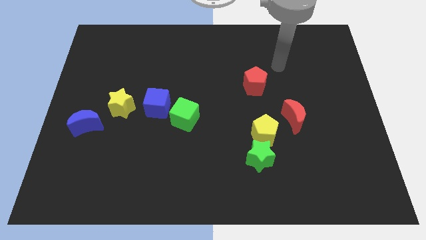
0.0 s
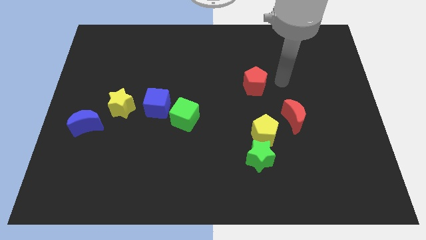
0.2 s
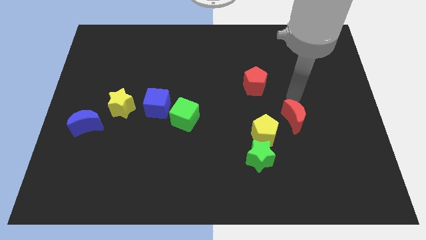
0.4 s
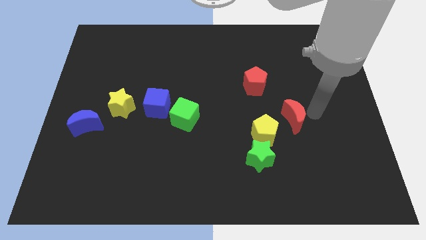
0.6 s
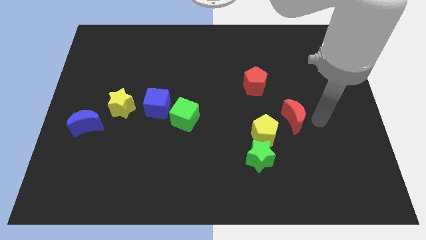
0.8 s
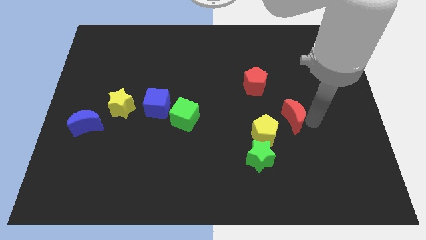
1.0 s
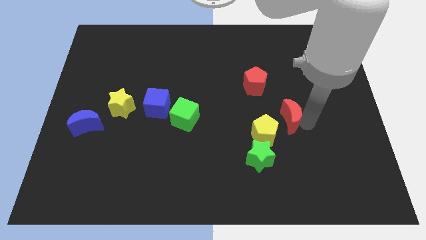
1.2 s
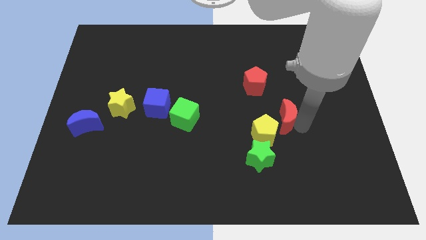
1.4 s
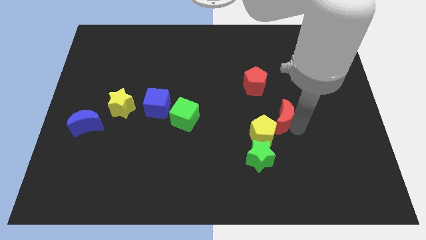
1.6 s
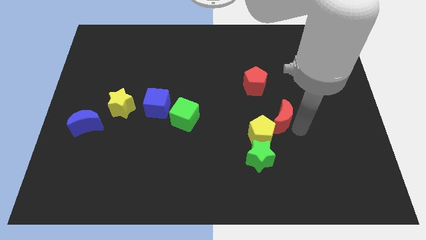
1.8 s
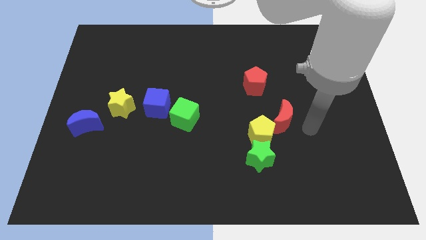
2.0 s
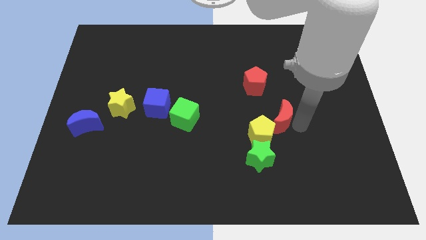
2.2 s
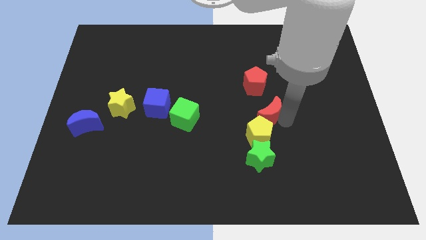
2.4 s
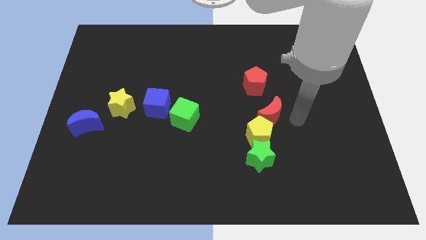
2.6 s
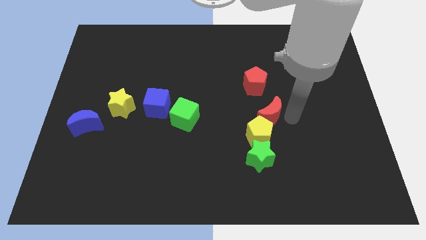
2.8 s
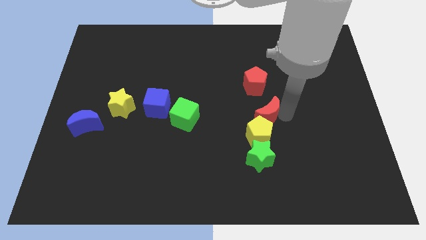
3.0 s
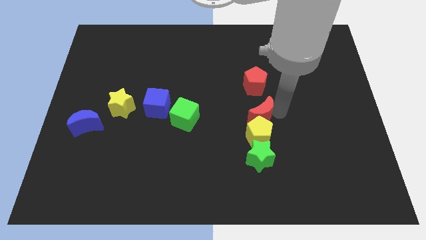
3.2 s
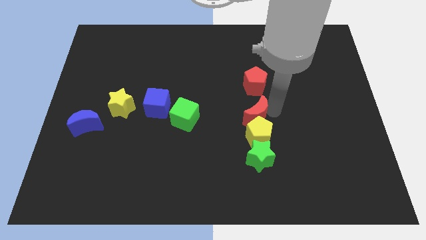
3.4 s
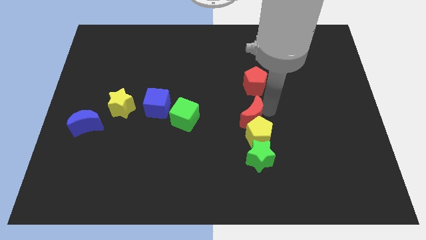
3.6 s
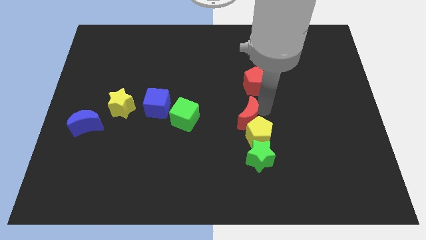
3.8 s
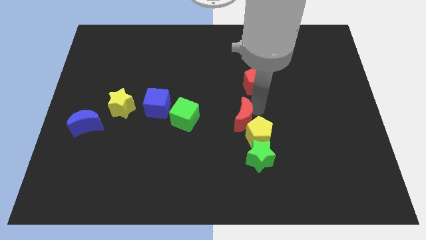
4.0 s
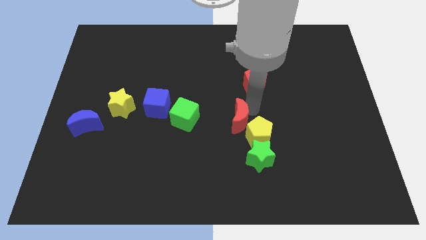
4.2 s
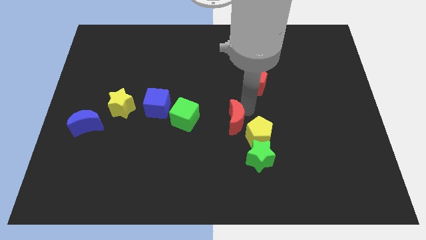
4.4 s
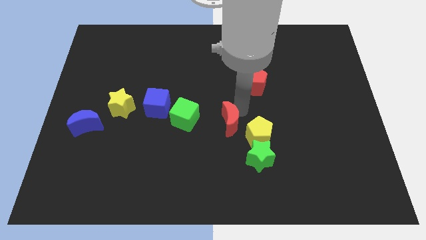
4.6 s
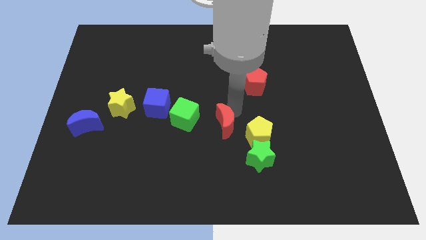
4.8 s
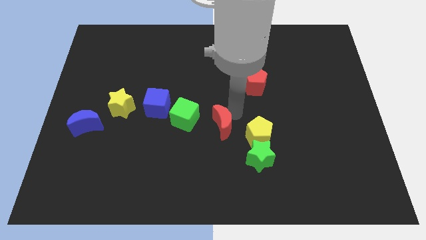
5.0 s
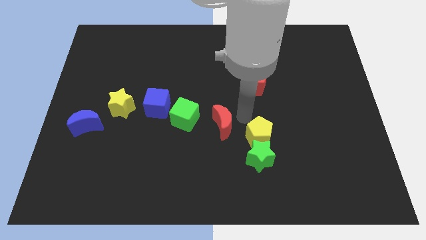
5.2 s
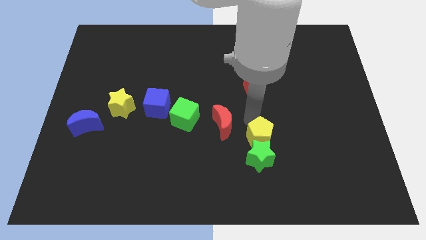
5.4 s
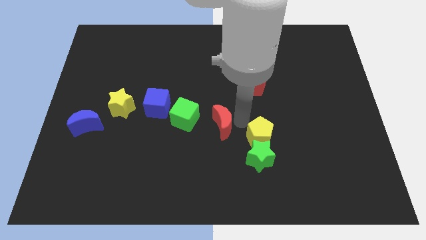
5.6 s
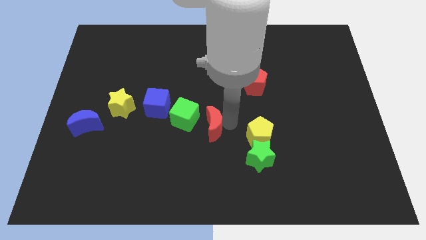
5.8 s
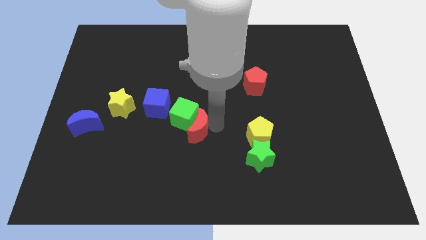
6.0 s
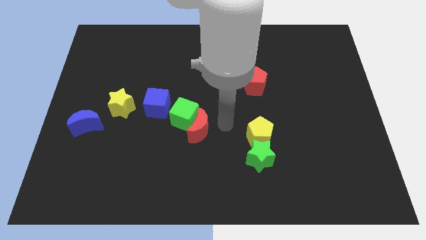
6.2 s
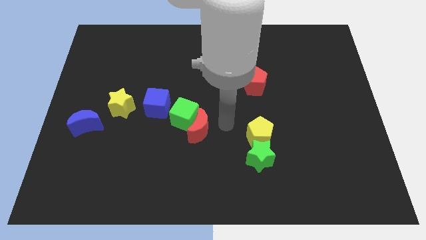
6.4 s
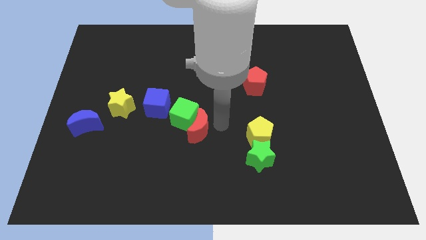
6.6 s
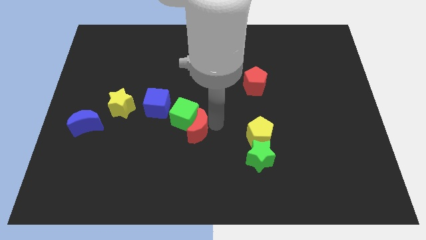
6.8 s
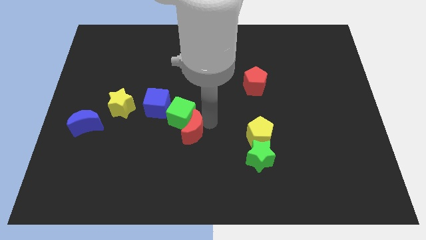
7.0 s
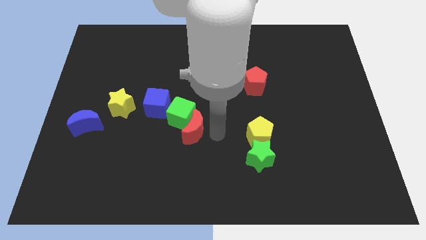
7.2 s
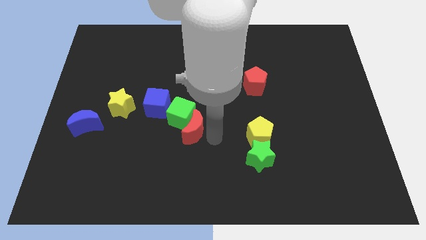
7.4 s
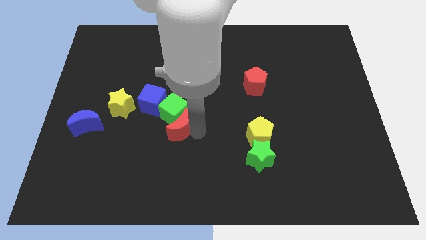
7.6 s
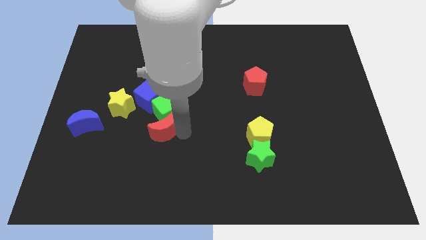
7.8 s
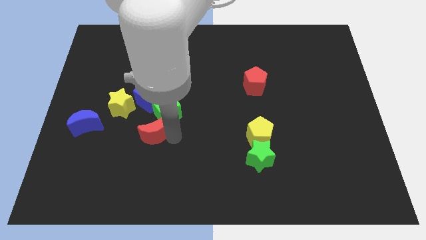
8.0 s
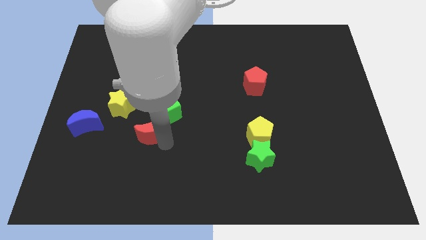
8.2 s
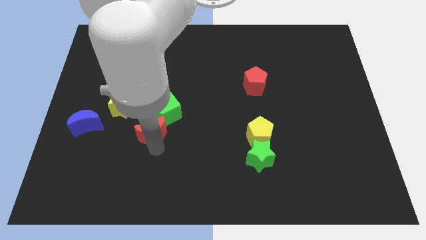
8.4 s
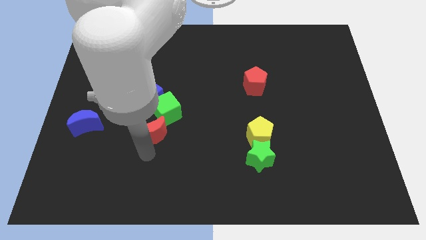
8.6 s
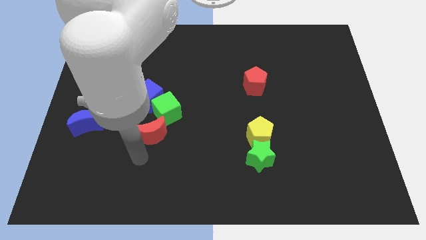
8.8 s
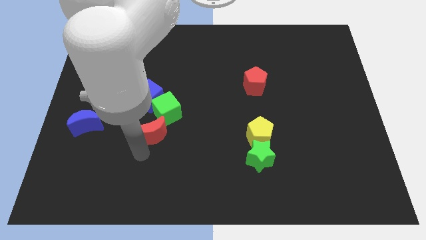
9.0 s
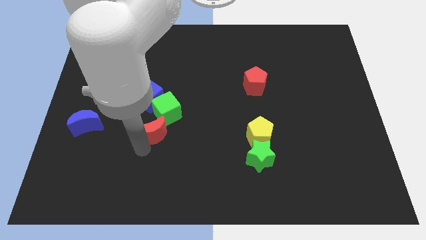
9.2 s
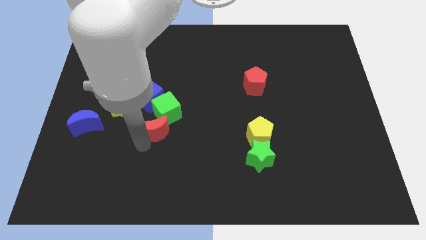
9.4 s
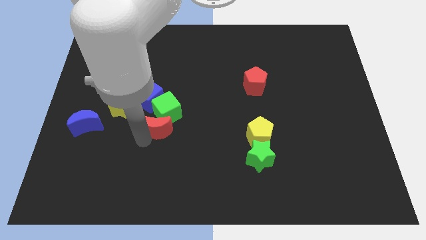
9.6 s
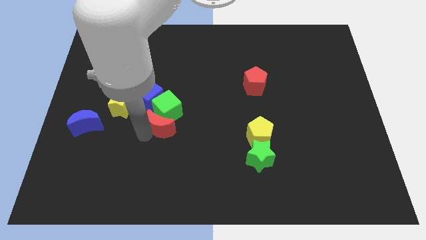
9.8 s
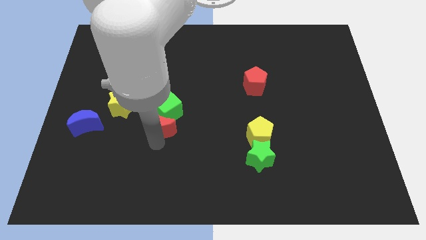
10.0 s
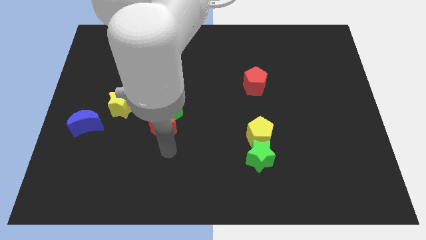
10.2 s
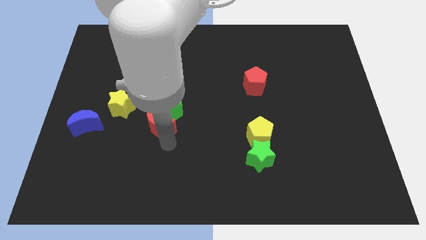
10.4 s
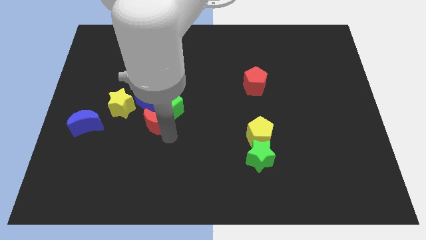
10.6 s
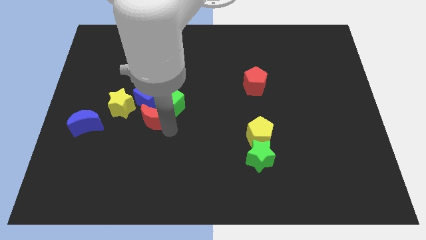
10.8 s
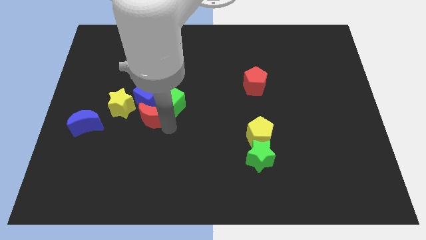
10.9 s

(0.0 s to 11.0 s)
move the red moon close to the blue cube

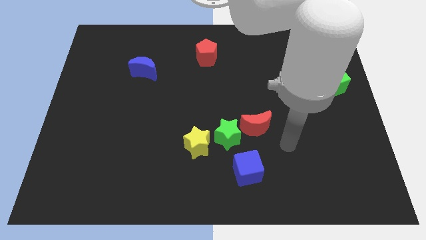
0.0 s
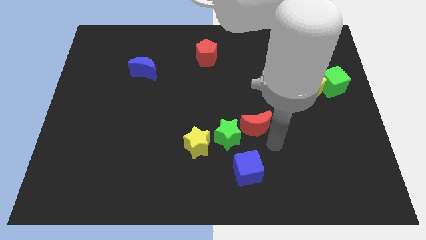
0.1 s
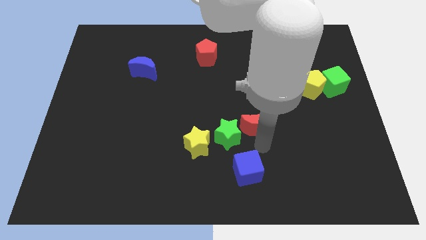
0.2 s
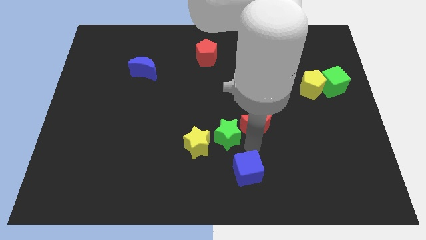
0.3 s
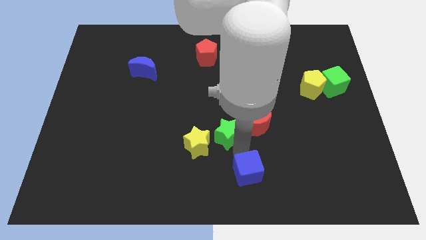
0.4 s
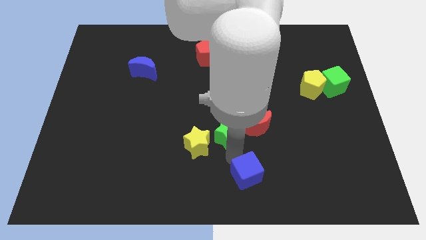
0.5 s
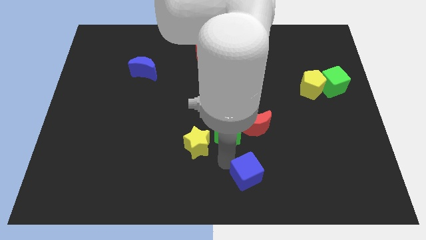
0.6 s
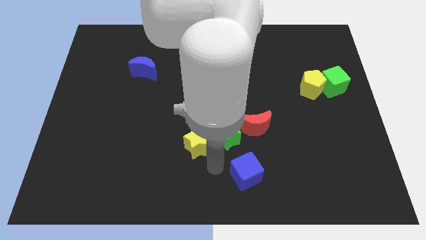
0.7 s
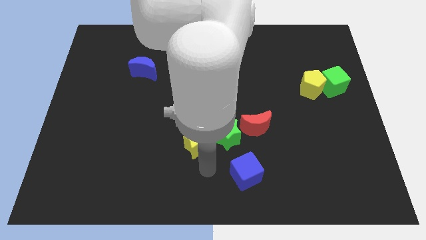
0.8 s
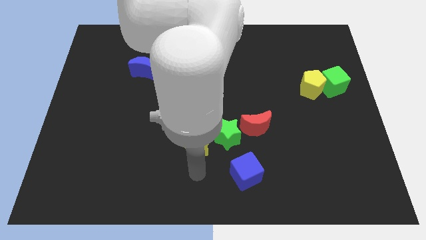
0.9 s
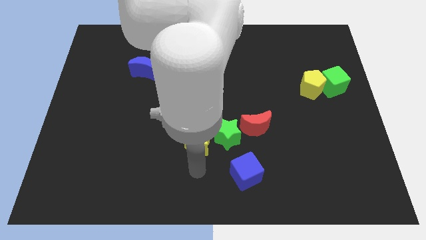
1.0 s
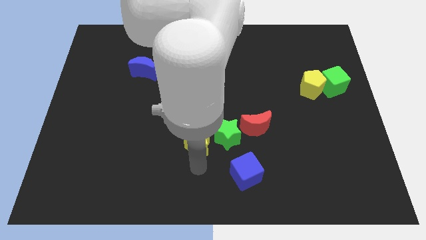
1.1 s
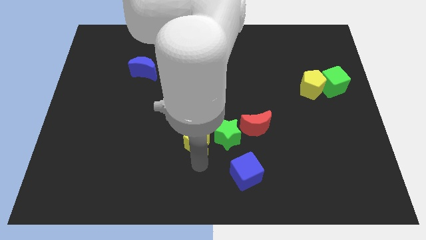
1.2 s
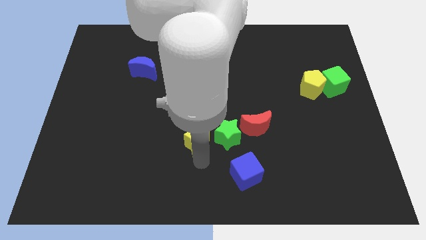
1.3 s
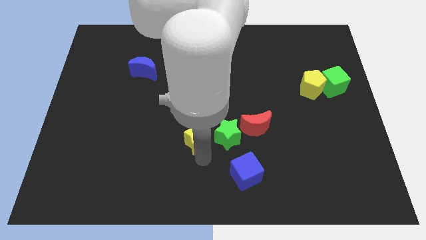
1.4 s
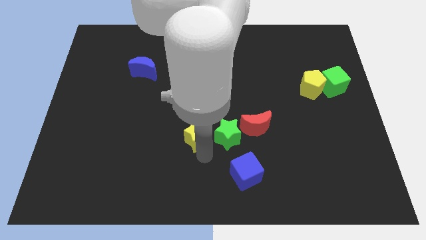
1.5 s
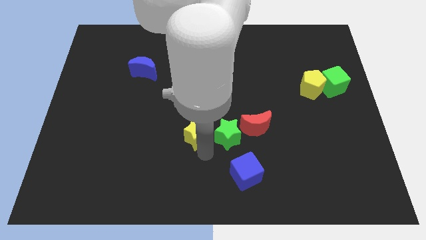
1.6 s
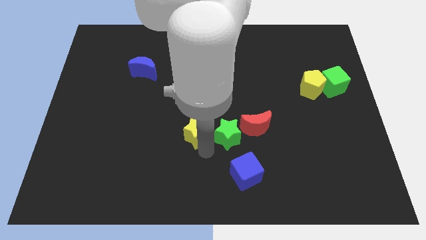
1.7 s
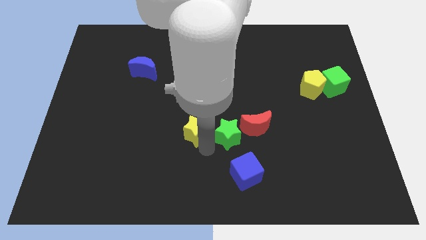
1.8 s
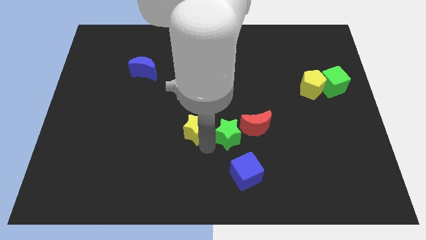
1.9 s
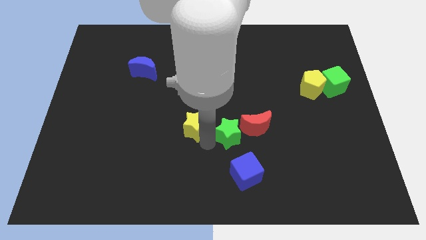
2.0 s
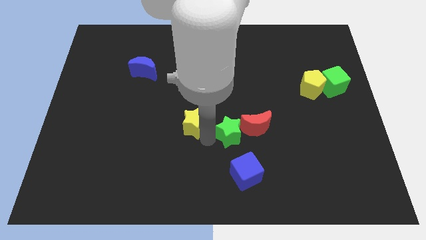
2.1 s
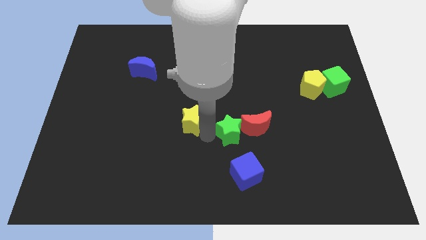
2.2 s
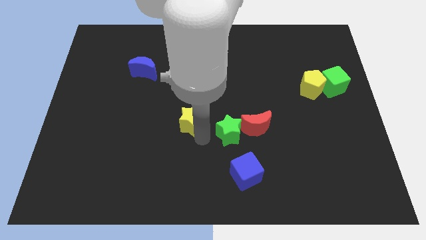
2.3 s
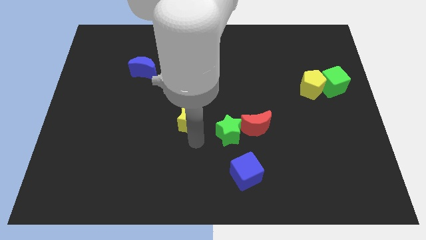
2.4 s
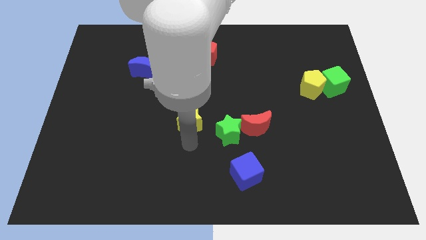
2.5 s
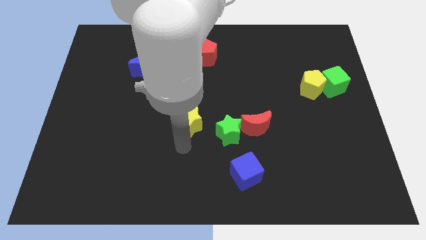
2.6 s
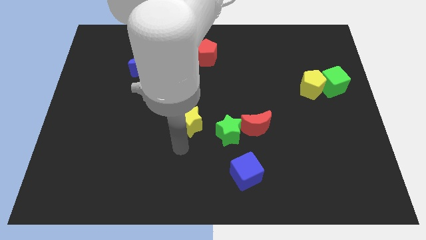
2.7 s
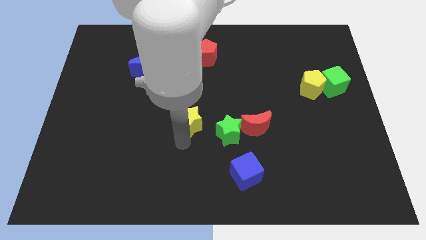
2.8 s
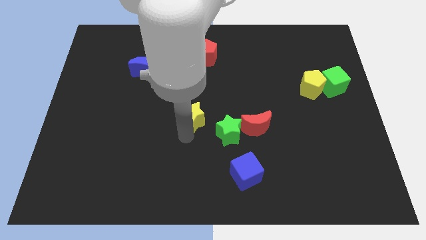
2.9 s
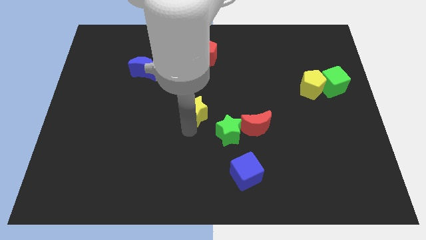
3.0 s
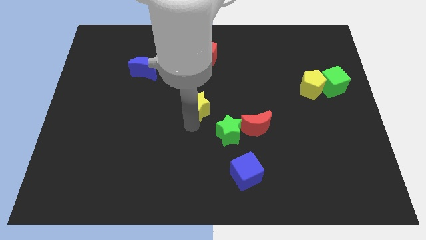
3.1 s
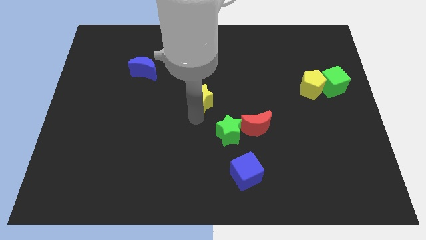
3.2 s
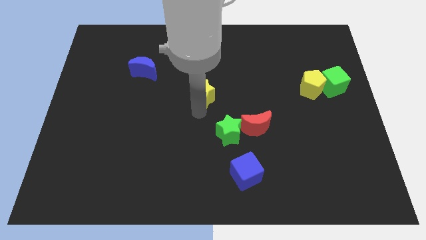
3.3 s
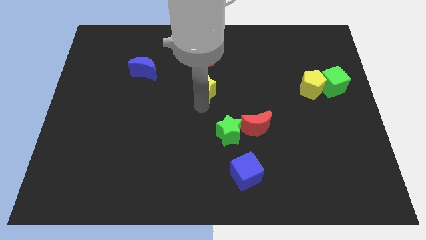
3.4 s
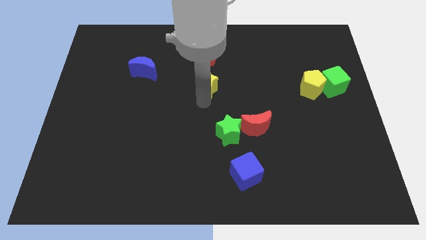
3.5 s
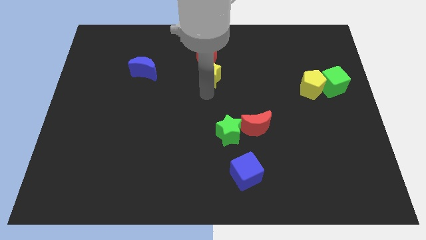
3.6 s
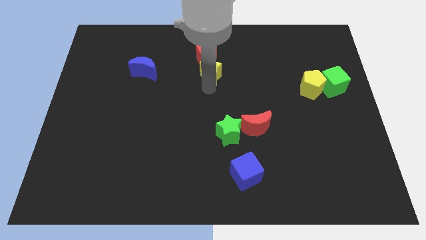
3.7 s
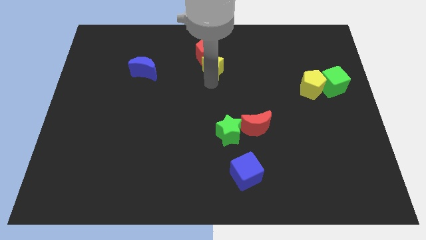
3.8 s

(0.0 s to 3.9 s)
put the yellow star next to the red pentagon
